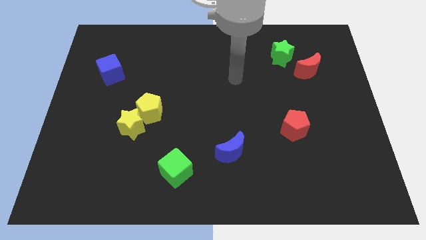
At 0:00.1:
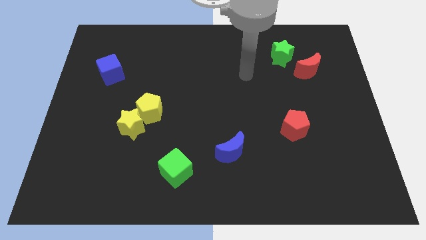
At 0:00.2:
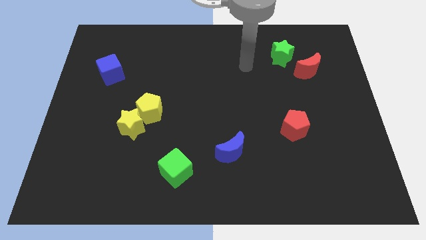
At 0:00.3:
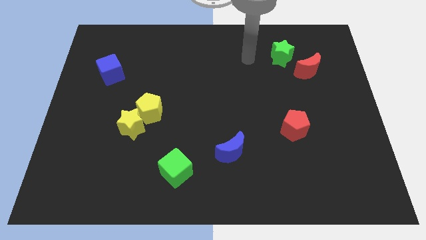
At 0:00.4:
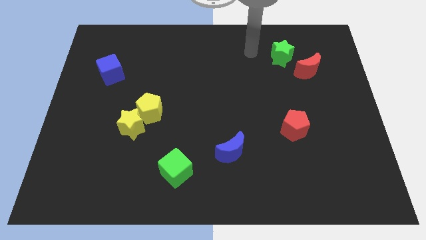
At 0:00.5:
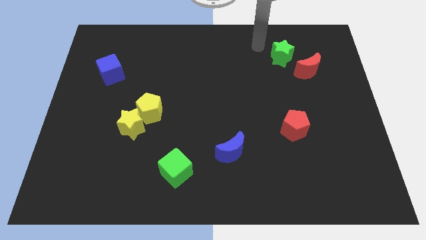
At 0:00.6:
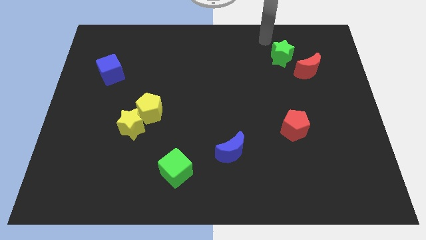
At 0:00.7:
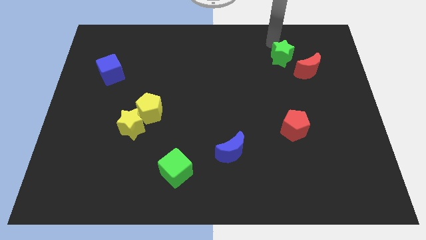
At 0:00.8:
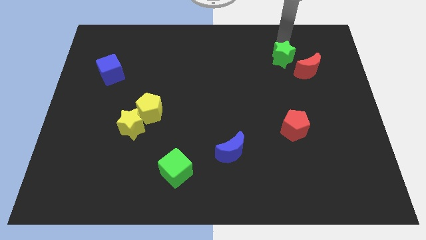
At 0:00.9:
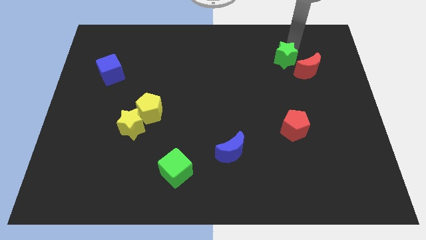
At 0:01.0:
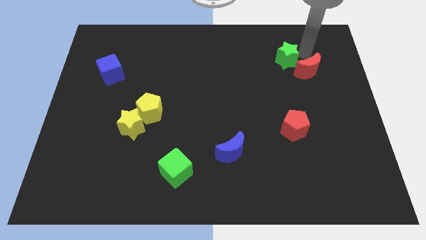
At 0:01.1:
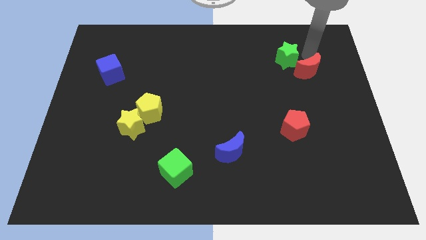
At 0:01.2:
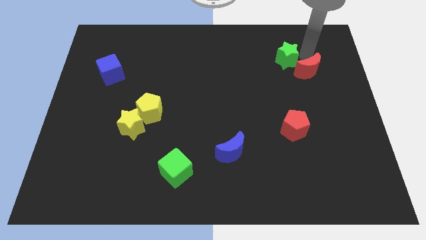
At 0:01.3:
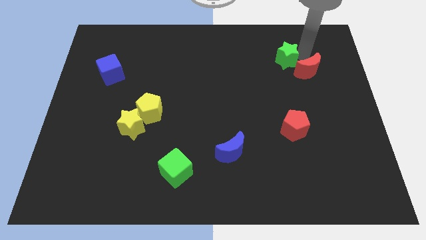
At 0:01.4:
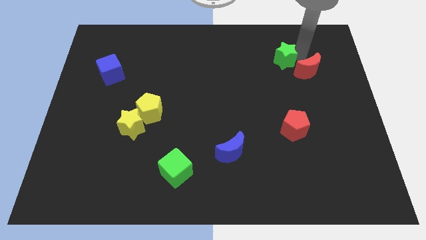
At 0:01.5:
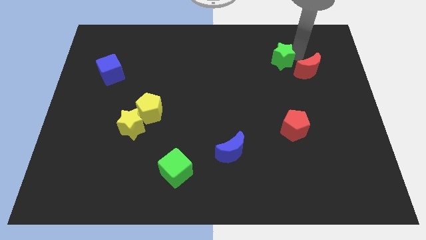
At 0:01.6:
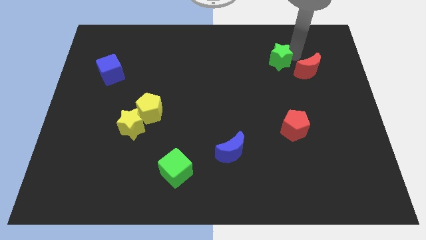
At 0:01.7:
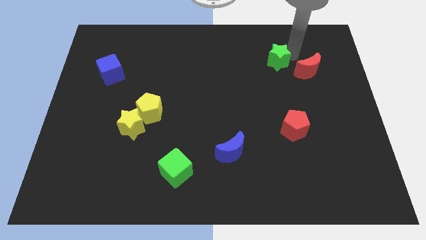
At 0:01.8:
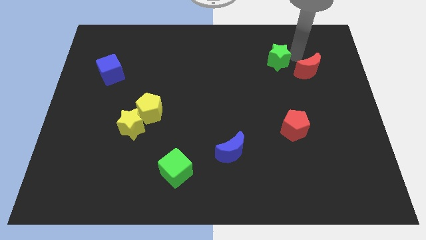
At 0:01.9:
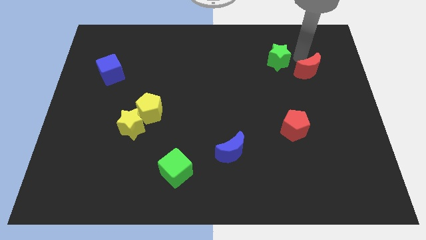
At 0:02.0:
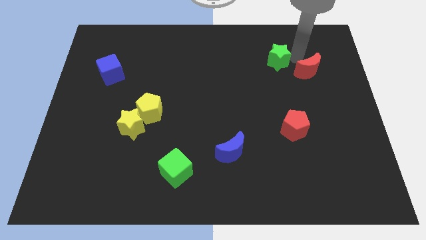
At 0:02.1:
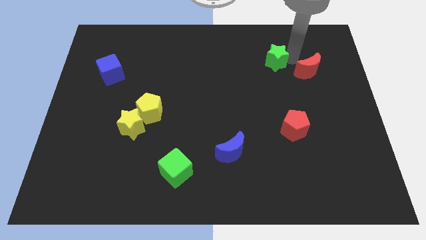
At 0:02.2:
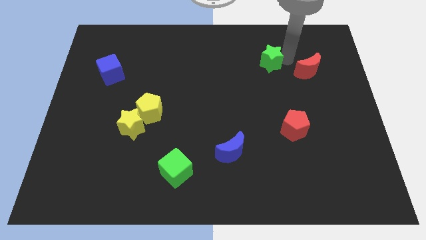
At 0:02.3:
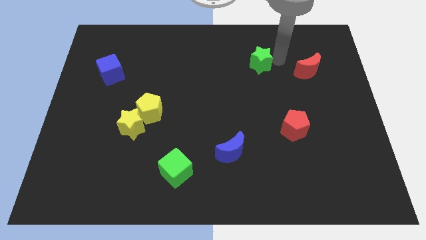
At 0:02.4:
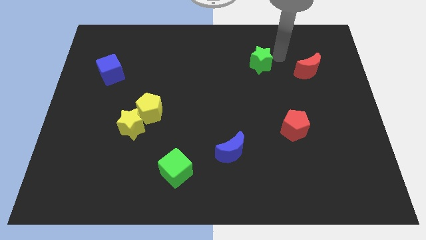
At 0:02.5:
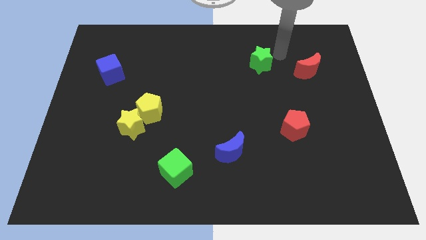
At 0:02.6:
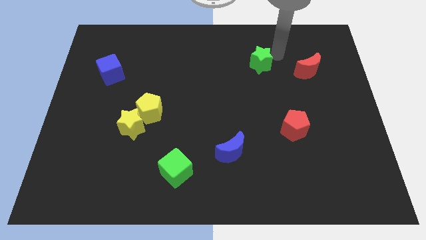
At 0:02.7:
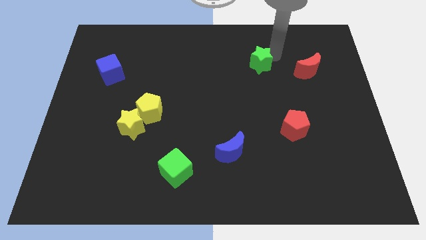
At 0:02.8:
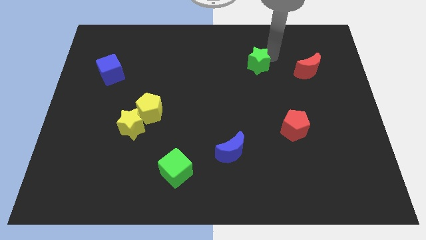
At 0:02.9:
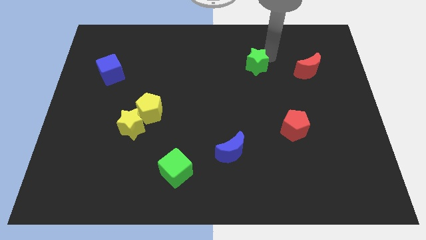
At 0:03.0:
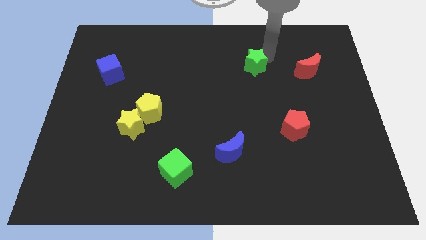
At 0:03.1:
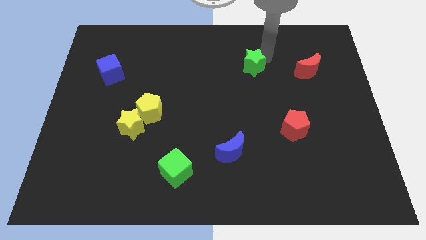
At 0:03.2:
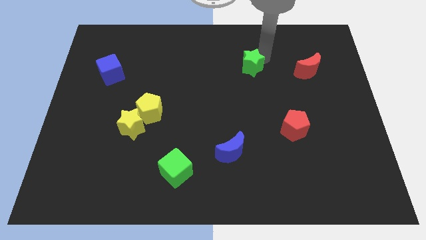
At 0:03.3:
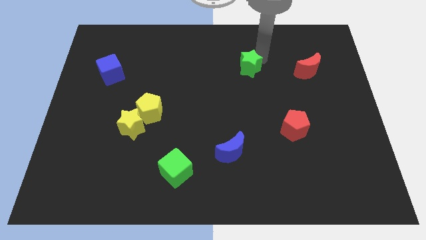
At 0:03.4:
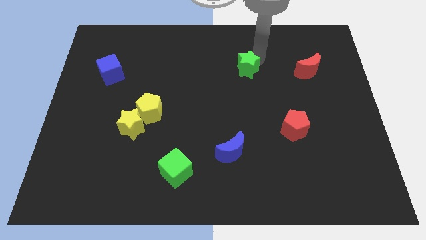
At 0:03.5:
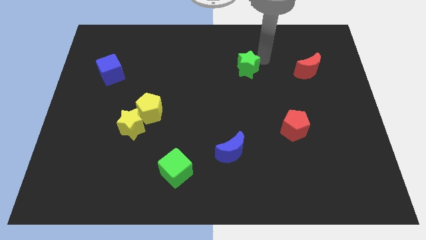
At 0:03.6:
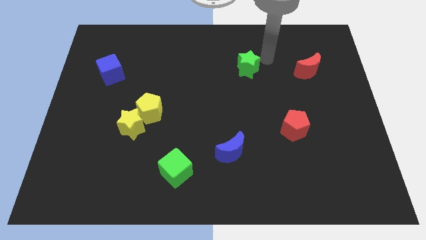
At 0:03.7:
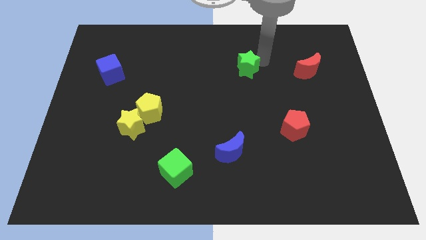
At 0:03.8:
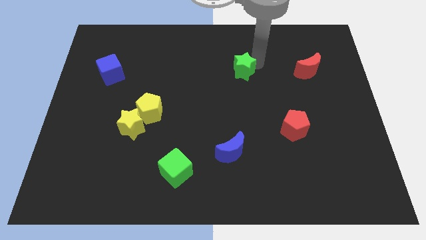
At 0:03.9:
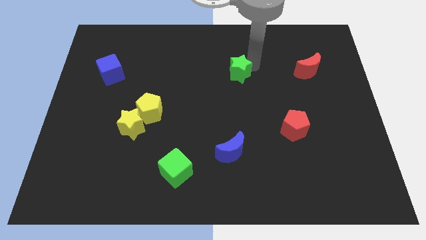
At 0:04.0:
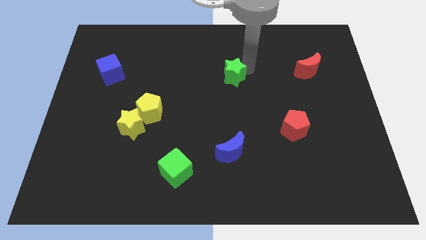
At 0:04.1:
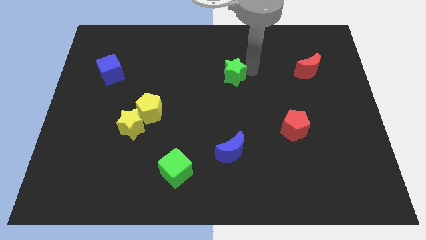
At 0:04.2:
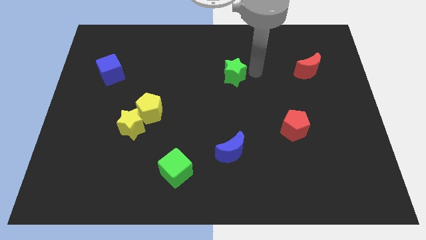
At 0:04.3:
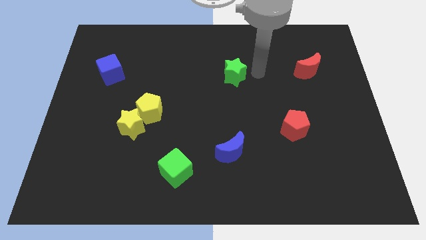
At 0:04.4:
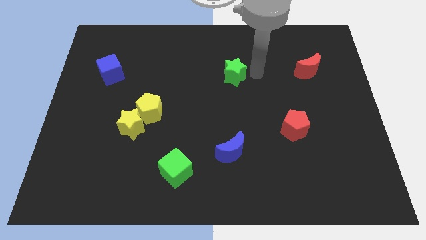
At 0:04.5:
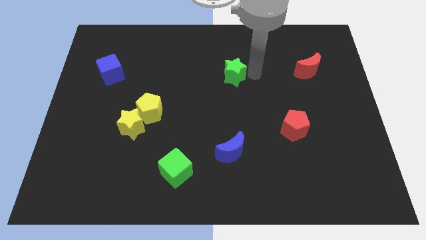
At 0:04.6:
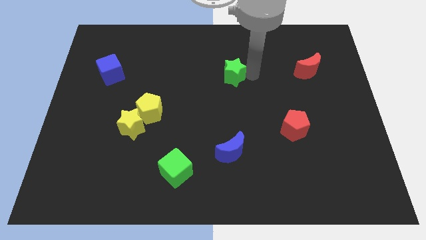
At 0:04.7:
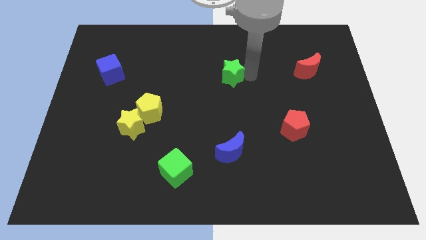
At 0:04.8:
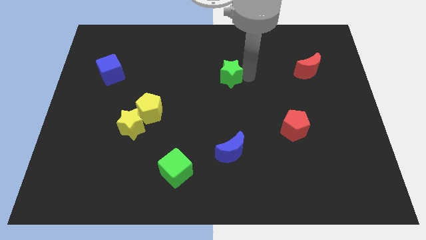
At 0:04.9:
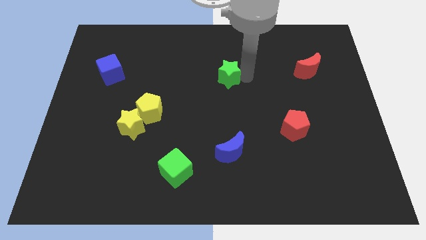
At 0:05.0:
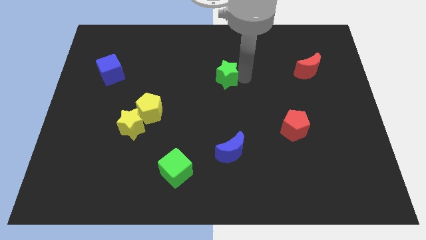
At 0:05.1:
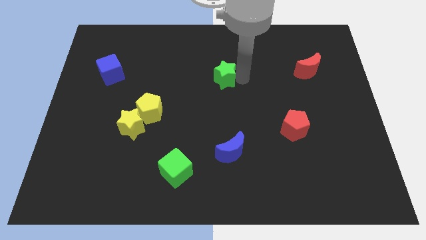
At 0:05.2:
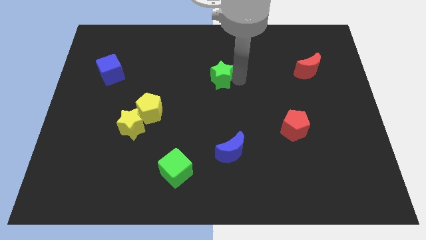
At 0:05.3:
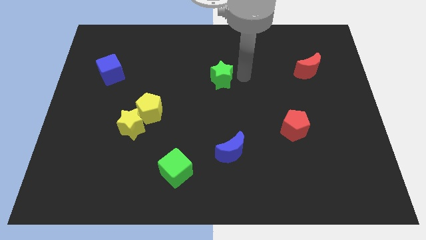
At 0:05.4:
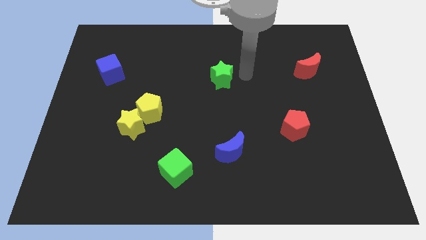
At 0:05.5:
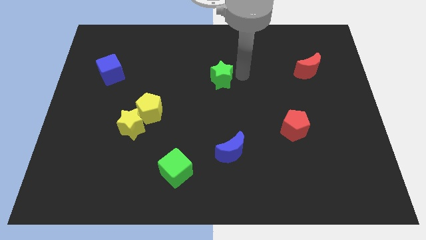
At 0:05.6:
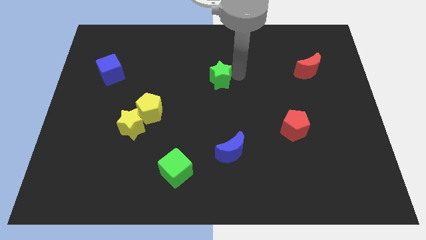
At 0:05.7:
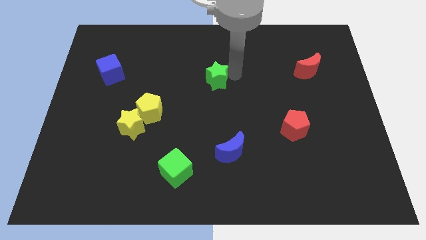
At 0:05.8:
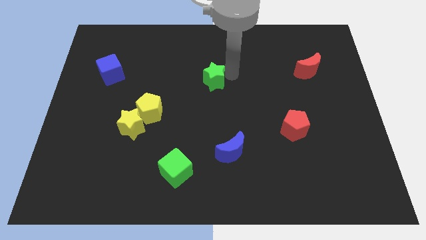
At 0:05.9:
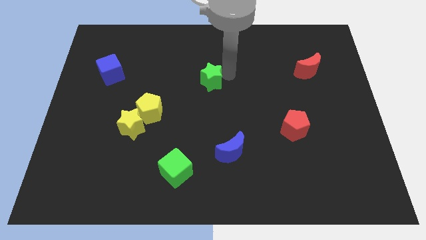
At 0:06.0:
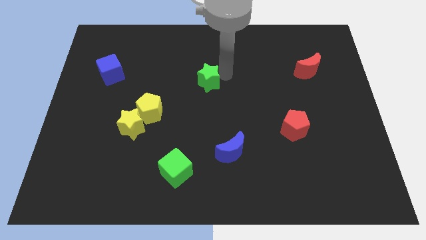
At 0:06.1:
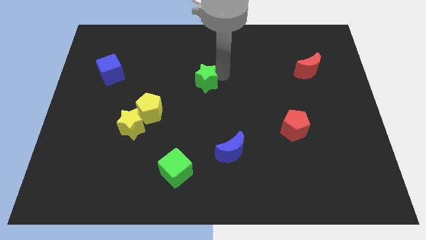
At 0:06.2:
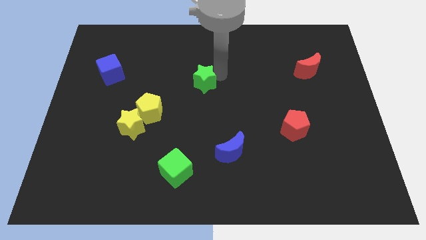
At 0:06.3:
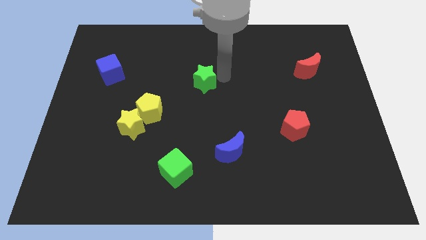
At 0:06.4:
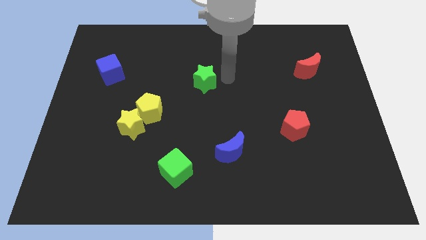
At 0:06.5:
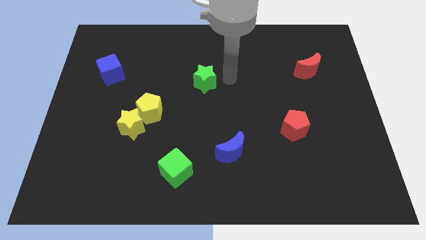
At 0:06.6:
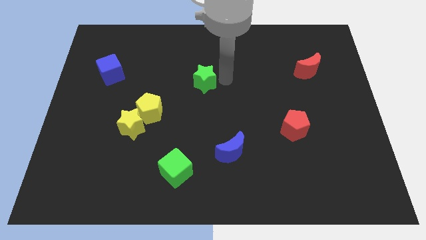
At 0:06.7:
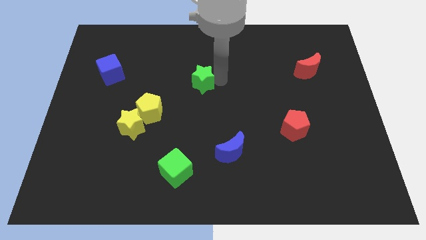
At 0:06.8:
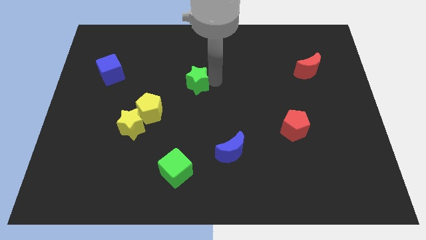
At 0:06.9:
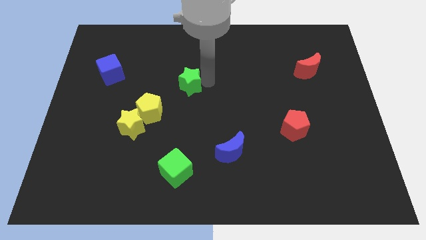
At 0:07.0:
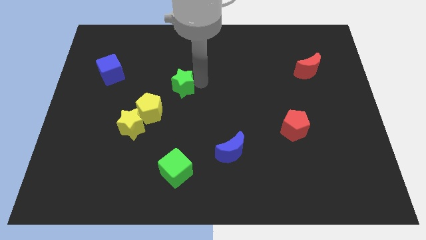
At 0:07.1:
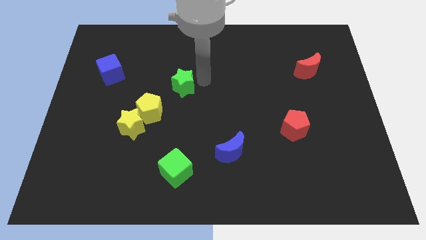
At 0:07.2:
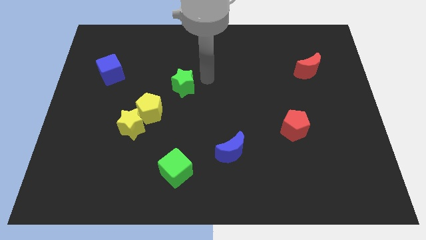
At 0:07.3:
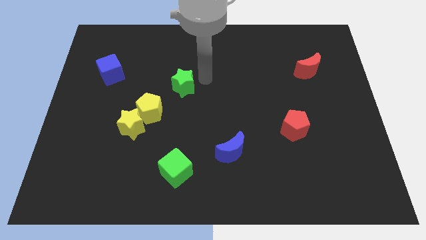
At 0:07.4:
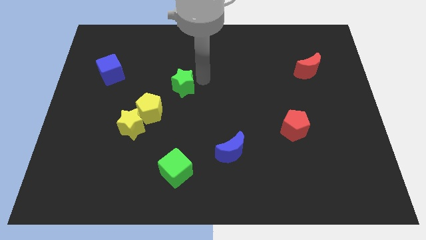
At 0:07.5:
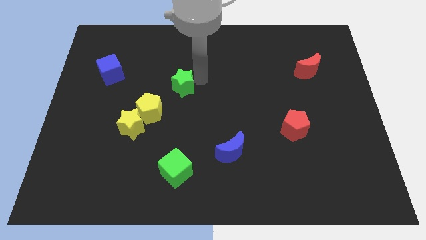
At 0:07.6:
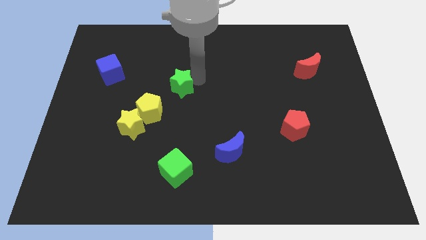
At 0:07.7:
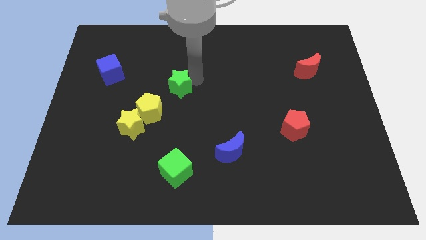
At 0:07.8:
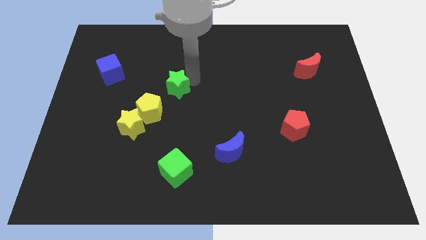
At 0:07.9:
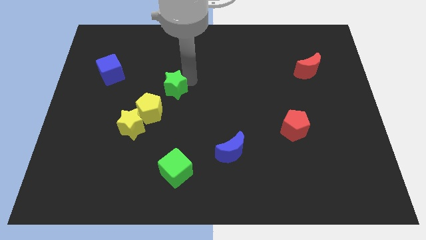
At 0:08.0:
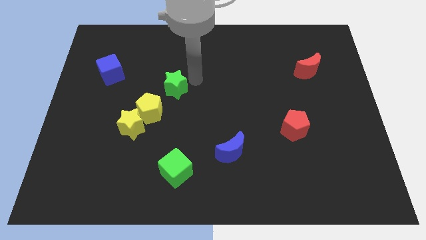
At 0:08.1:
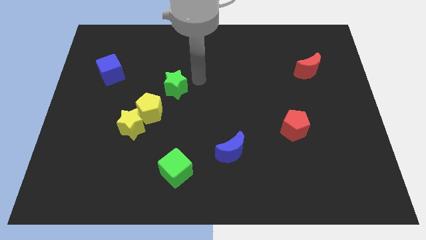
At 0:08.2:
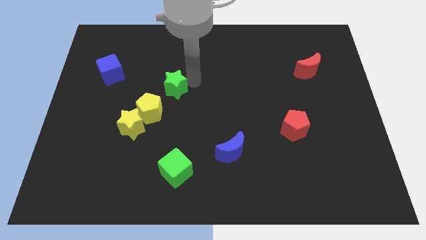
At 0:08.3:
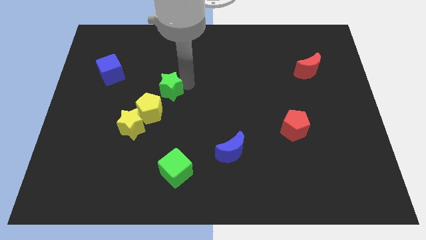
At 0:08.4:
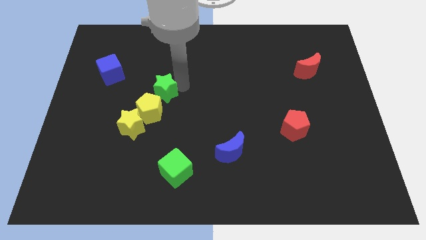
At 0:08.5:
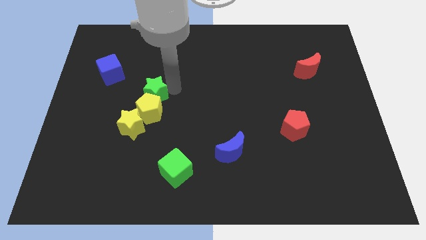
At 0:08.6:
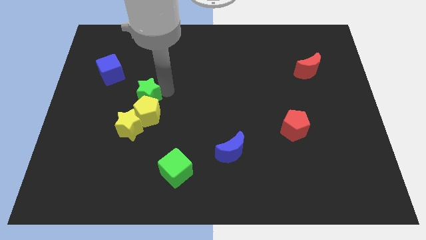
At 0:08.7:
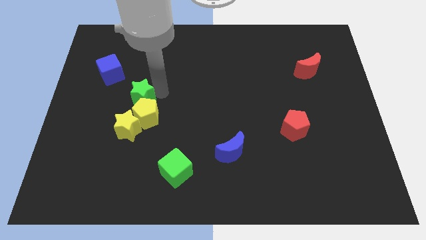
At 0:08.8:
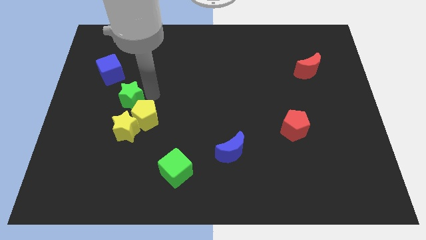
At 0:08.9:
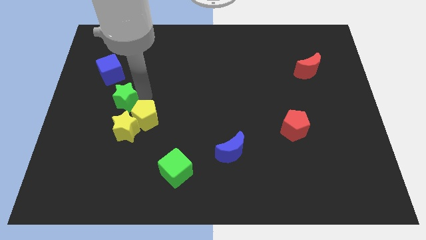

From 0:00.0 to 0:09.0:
slide the green star diagonally up and to the left of the yellow star
